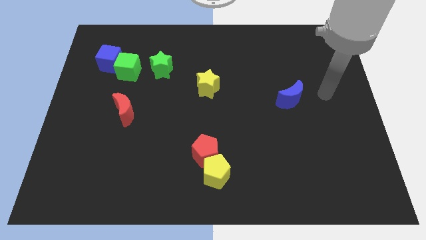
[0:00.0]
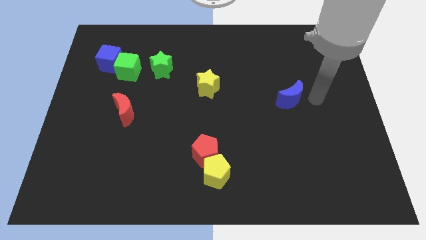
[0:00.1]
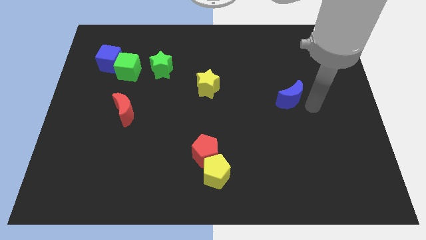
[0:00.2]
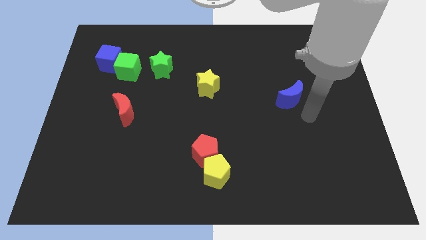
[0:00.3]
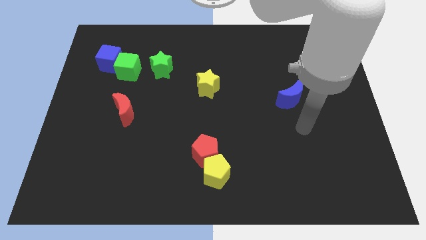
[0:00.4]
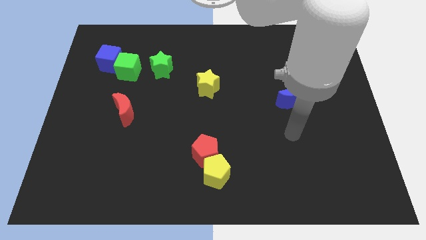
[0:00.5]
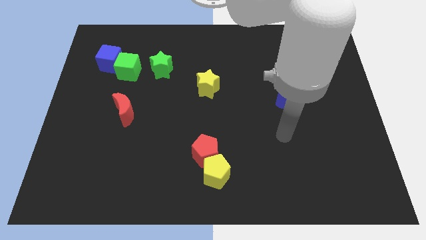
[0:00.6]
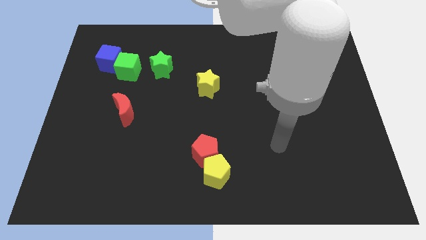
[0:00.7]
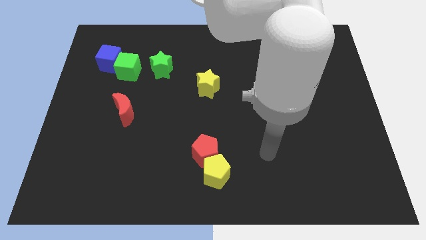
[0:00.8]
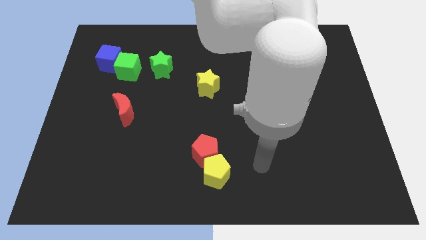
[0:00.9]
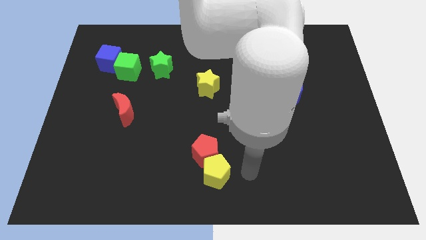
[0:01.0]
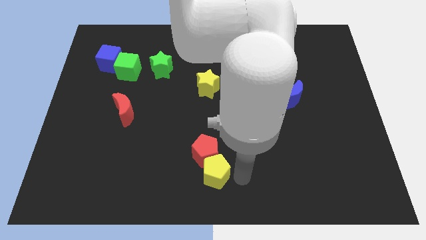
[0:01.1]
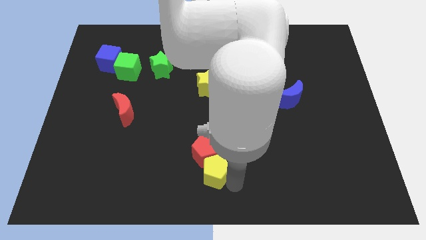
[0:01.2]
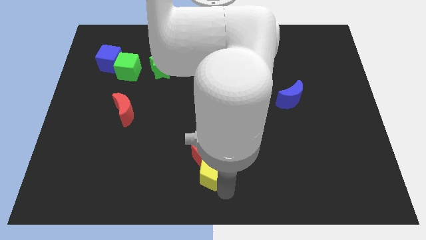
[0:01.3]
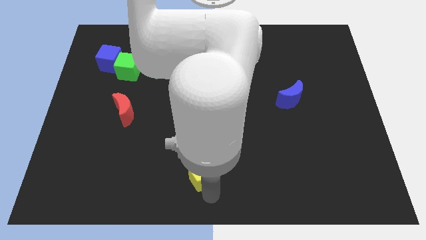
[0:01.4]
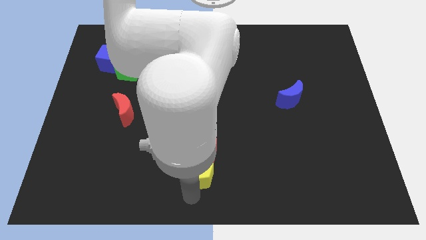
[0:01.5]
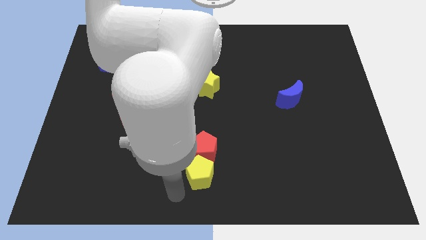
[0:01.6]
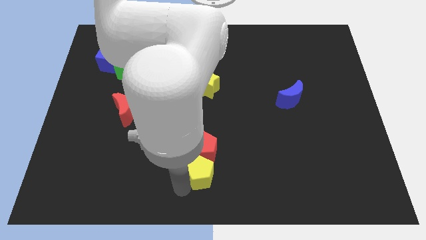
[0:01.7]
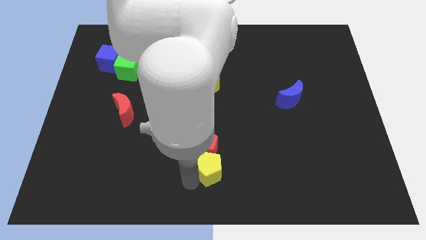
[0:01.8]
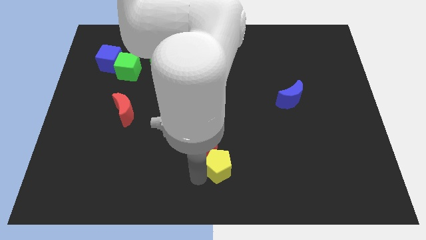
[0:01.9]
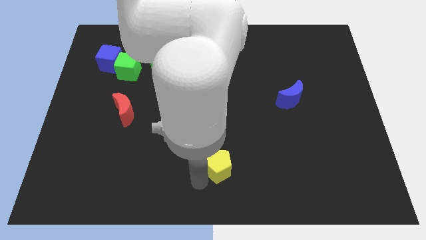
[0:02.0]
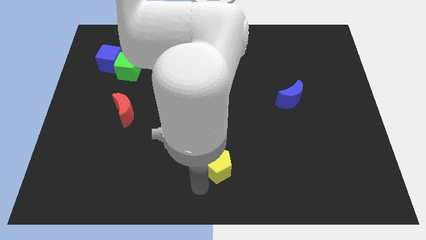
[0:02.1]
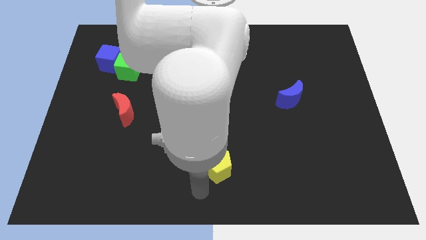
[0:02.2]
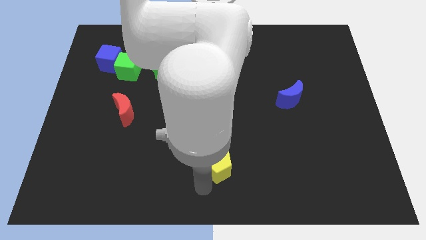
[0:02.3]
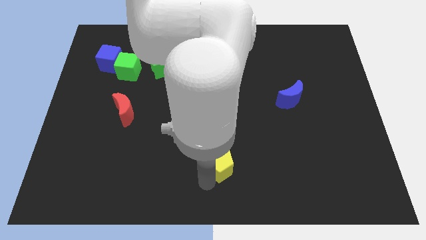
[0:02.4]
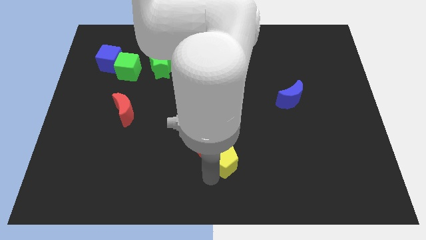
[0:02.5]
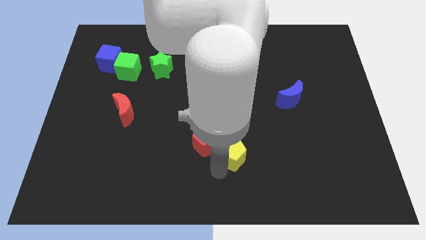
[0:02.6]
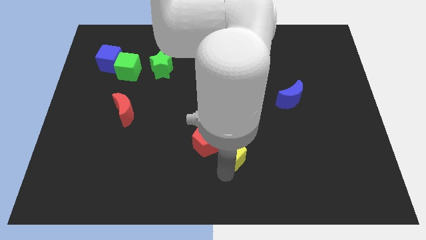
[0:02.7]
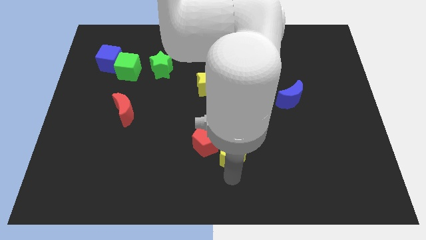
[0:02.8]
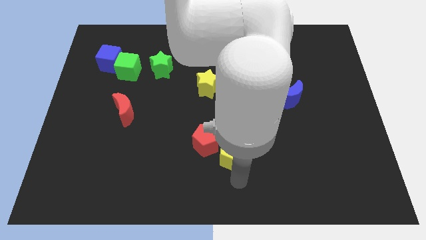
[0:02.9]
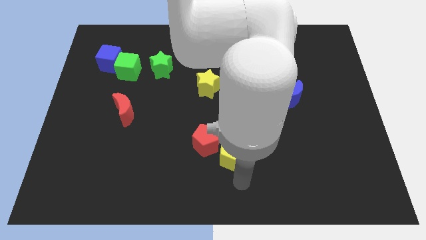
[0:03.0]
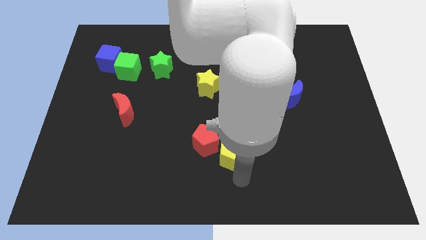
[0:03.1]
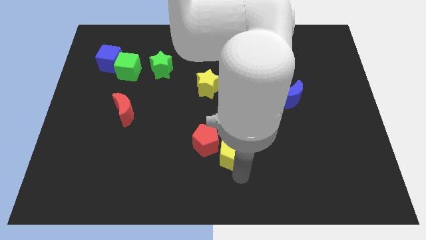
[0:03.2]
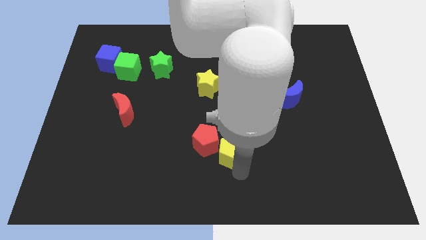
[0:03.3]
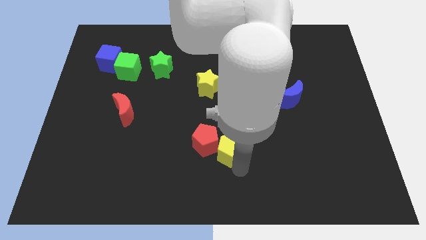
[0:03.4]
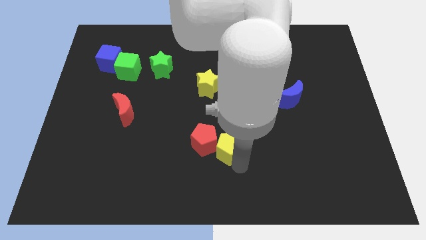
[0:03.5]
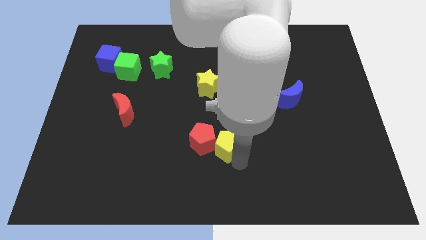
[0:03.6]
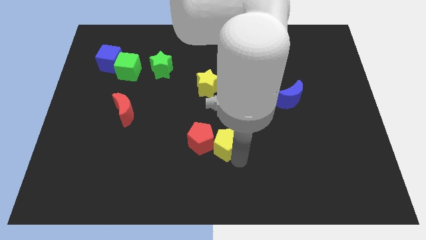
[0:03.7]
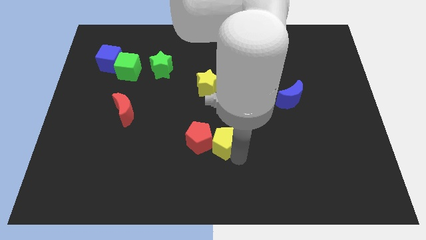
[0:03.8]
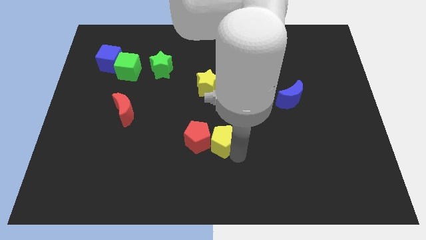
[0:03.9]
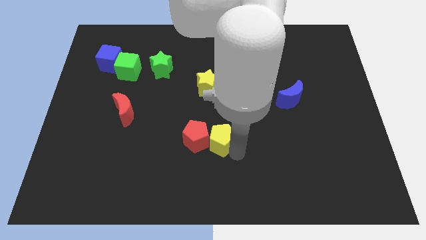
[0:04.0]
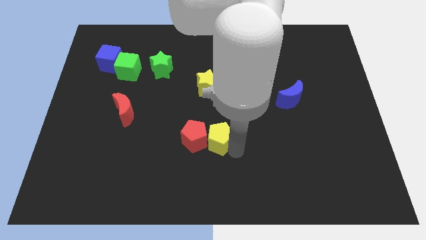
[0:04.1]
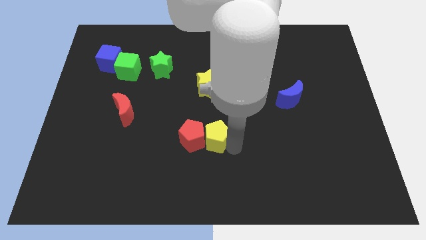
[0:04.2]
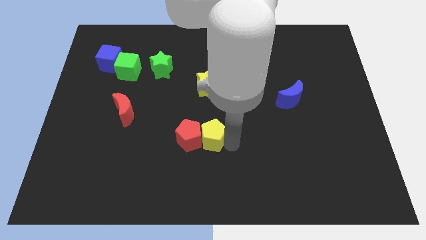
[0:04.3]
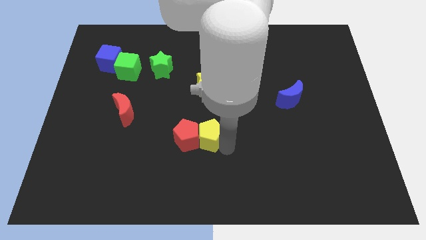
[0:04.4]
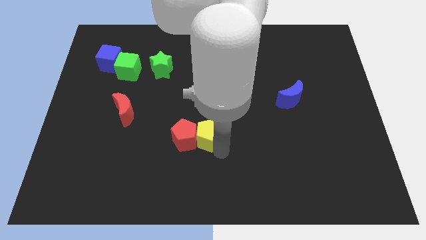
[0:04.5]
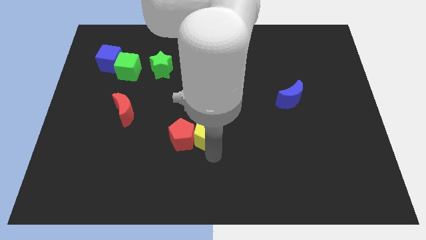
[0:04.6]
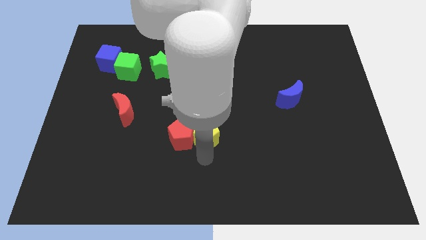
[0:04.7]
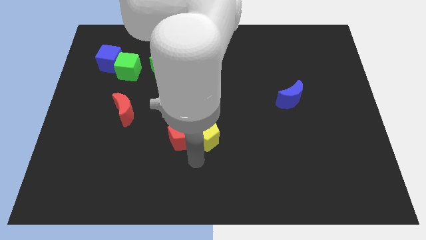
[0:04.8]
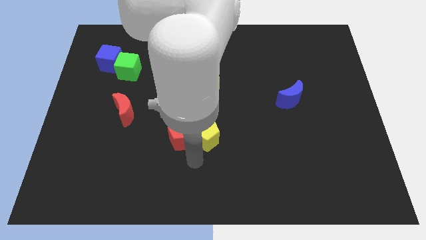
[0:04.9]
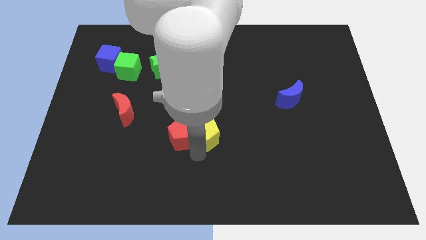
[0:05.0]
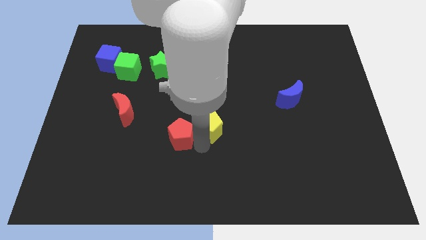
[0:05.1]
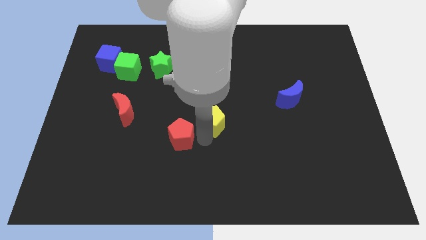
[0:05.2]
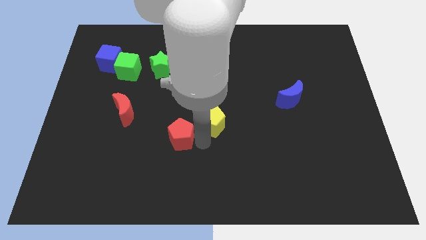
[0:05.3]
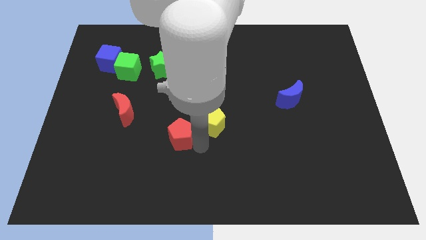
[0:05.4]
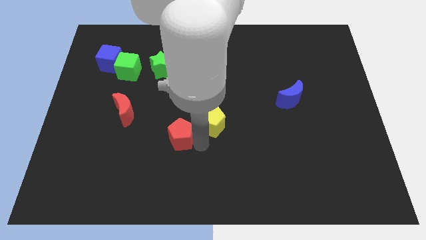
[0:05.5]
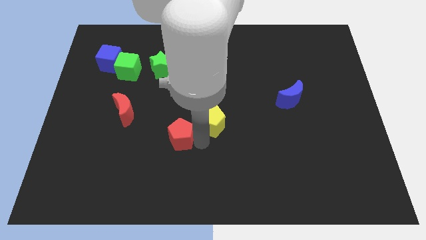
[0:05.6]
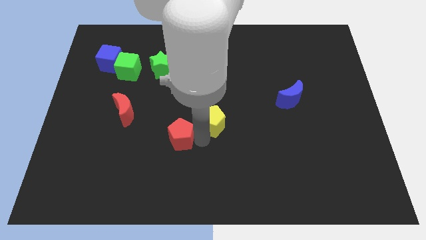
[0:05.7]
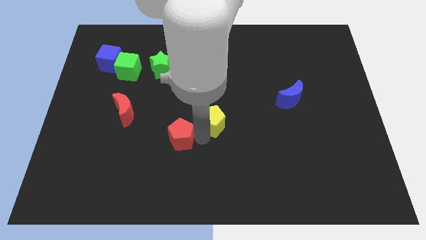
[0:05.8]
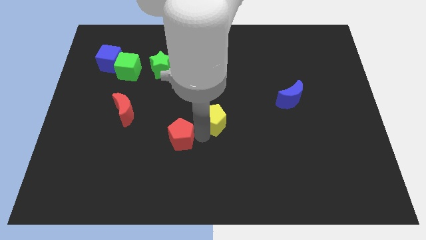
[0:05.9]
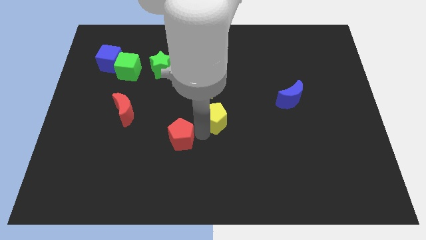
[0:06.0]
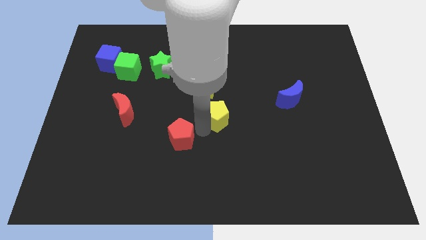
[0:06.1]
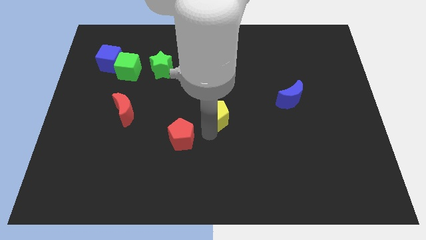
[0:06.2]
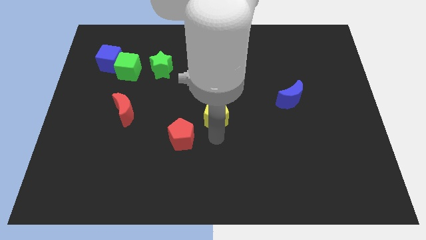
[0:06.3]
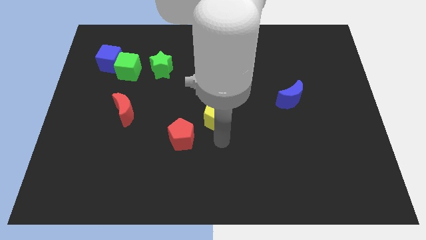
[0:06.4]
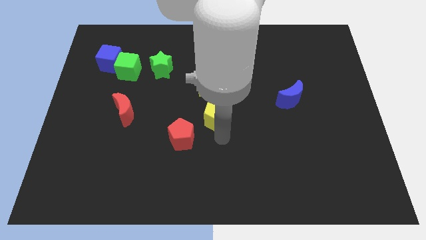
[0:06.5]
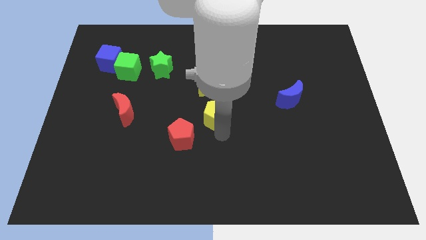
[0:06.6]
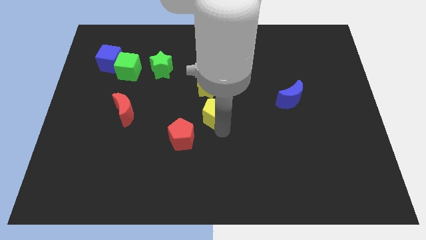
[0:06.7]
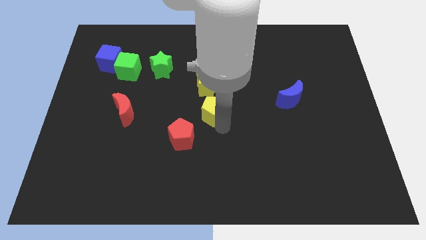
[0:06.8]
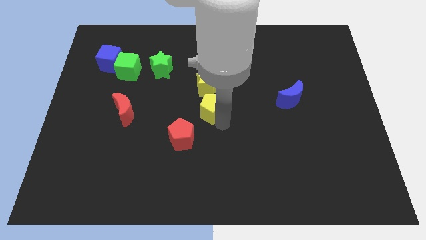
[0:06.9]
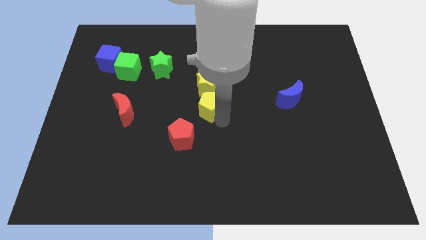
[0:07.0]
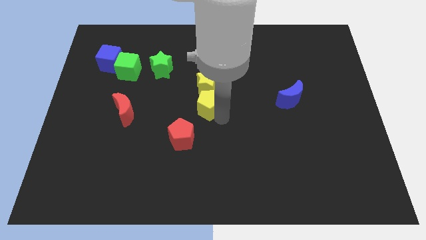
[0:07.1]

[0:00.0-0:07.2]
put the yellow pentagon close to the yellow star
